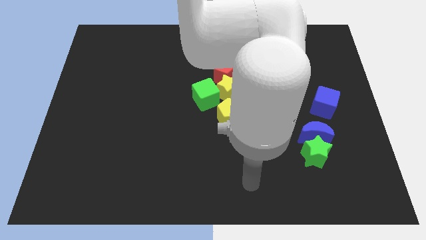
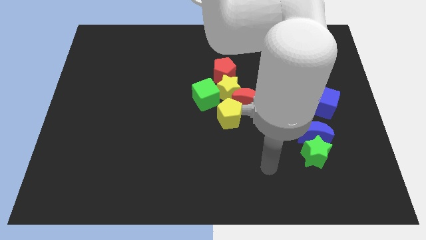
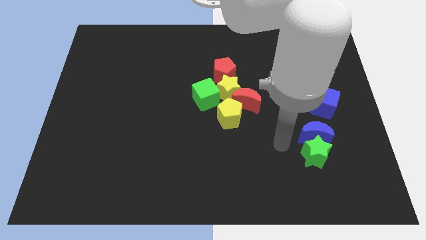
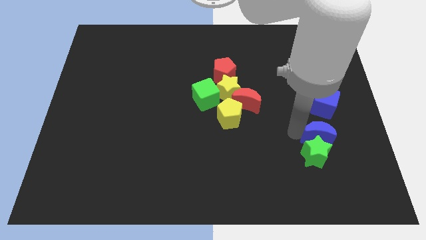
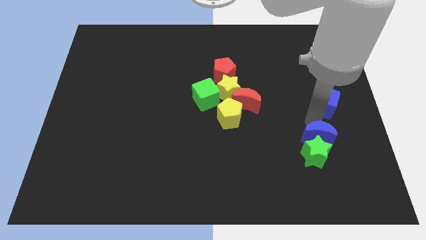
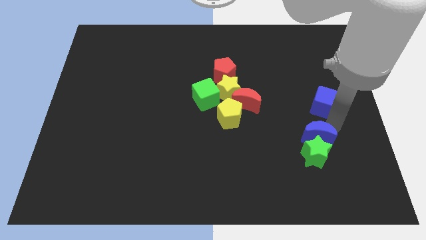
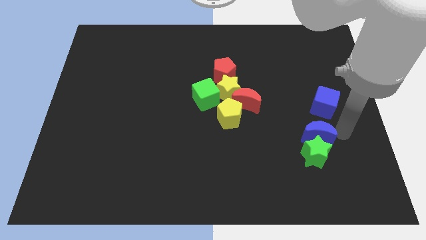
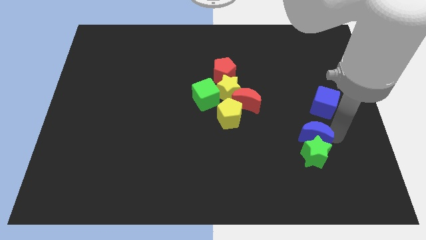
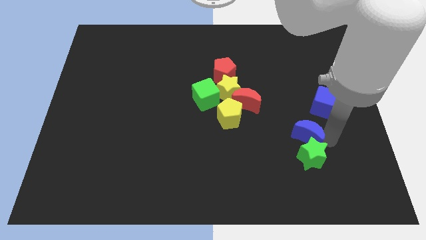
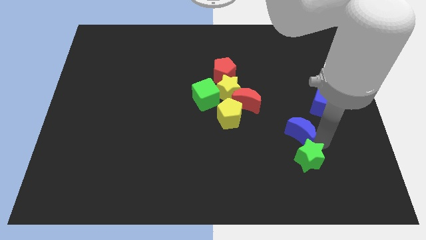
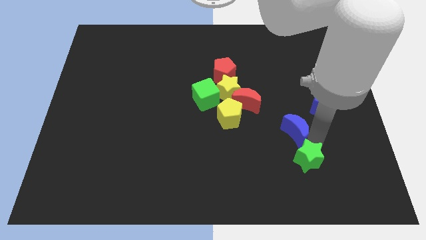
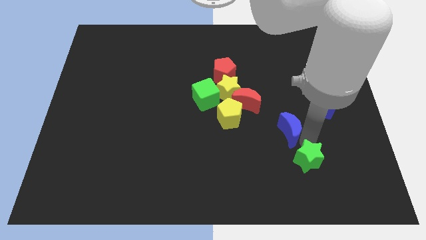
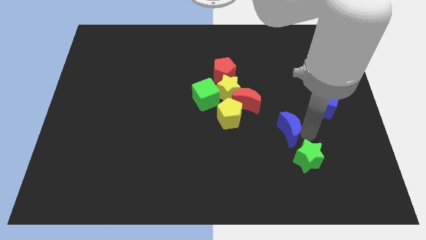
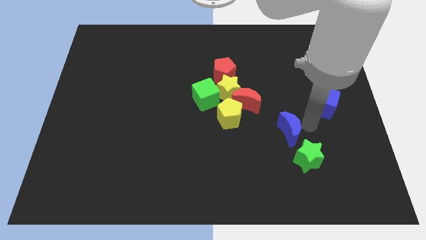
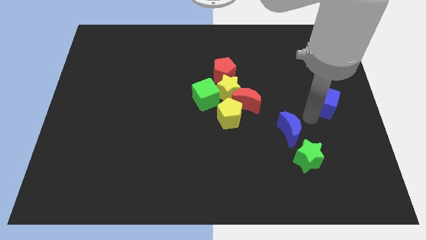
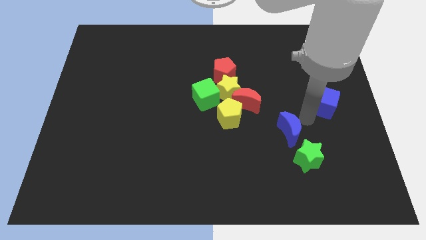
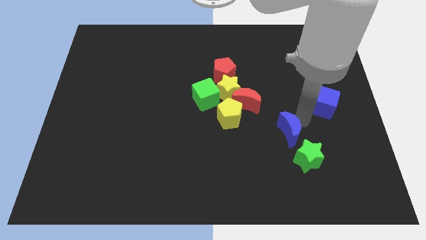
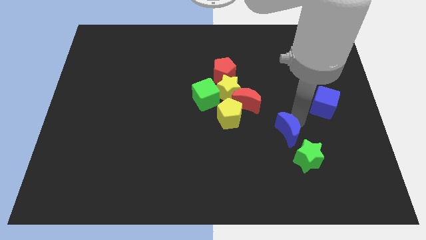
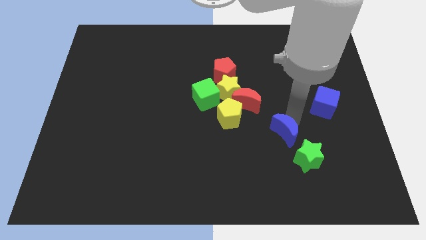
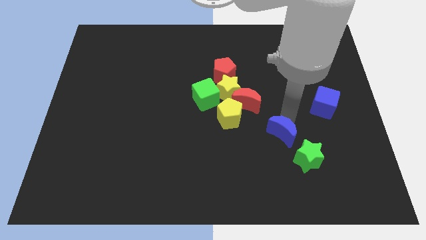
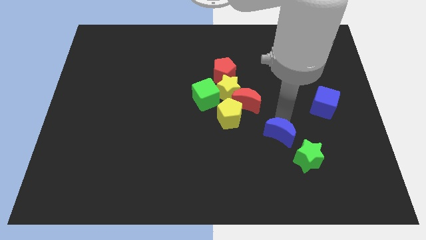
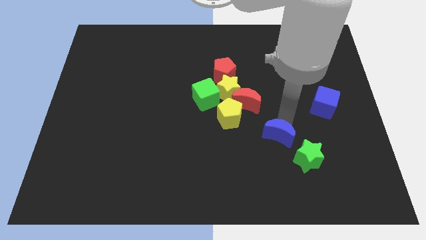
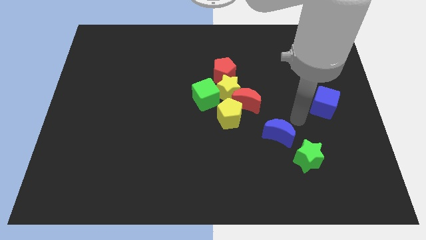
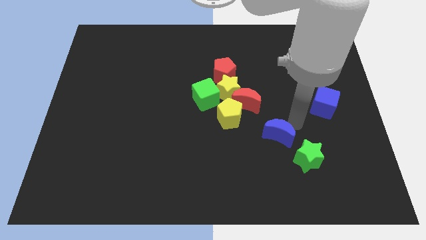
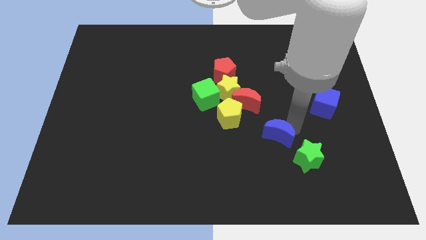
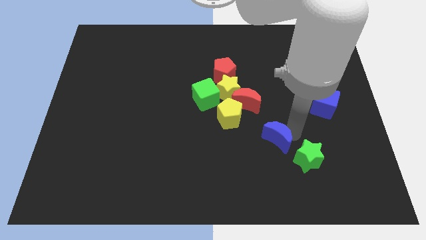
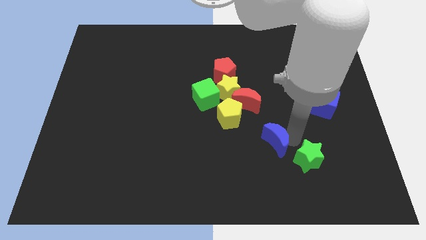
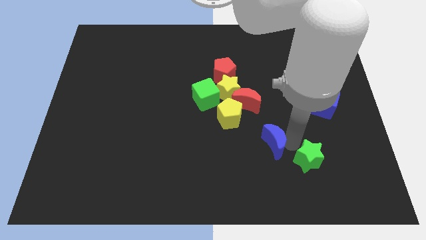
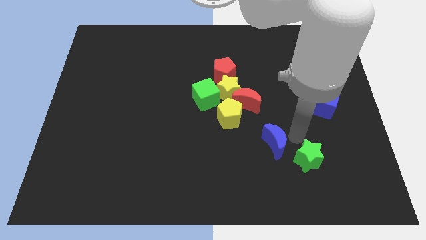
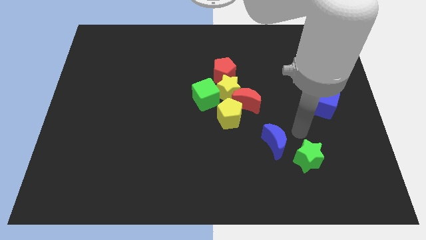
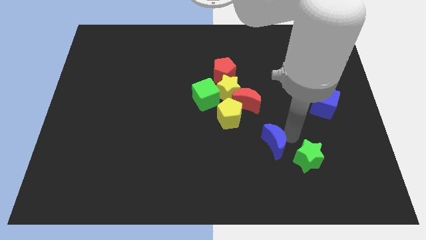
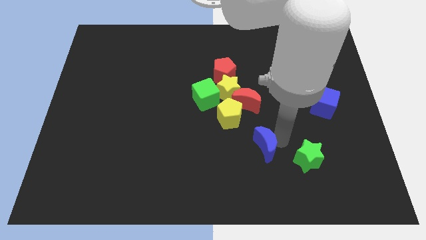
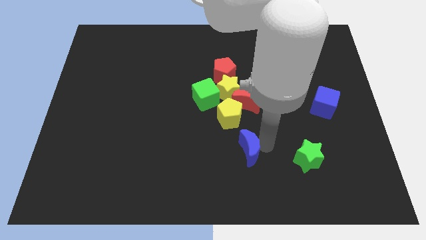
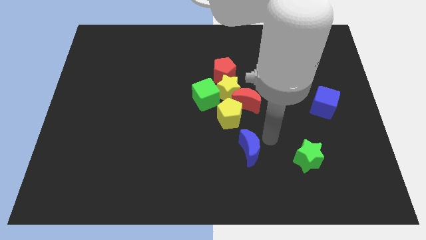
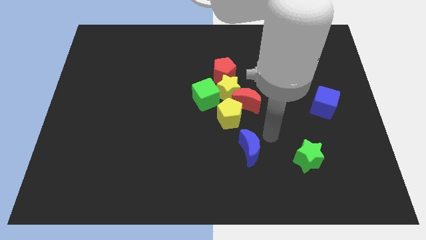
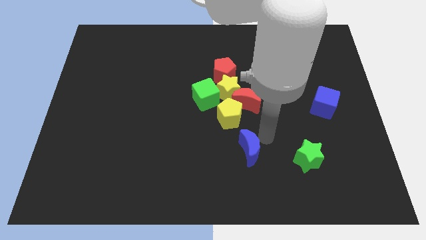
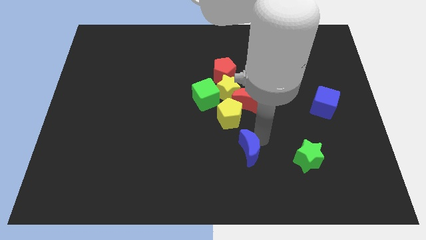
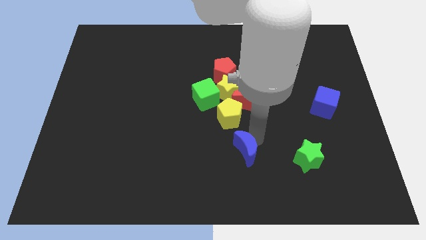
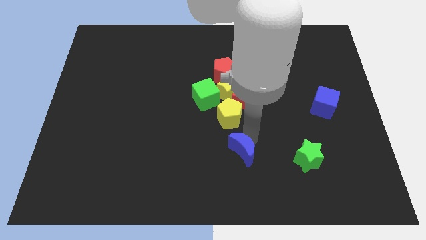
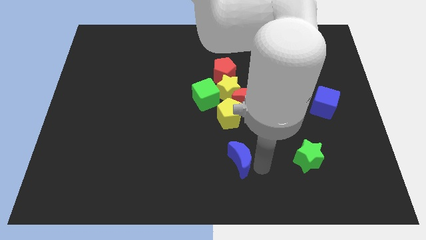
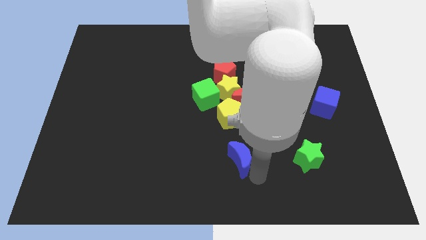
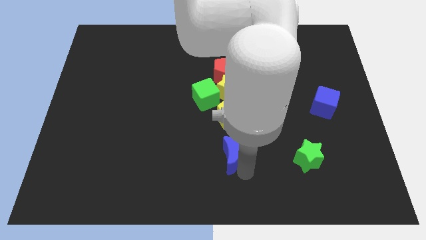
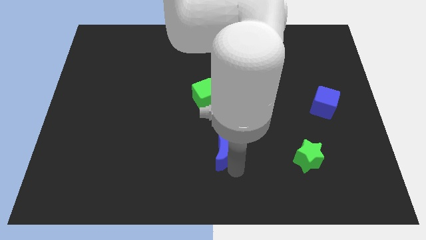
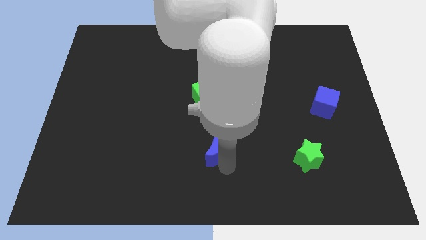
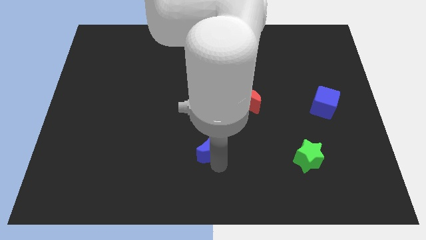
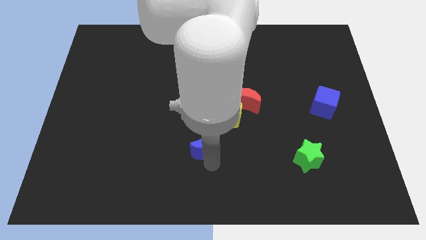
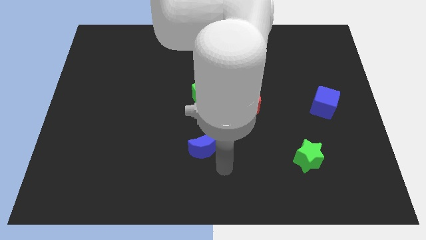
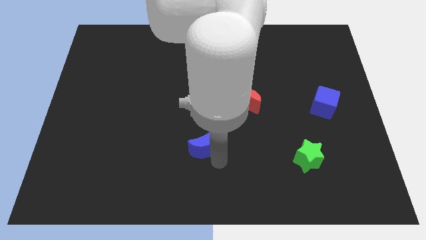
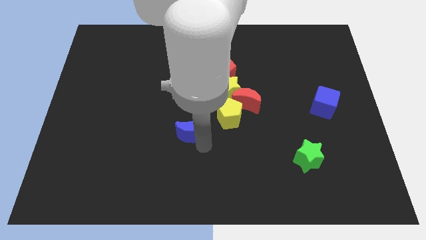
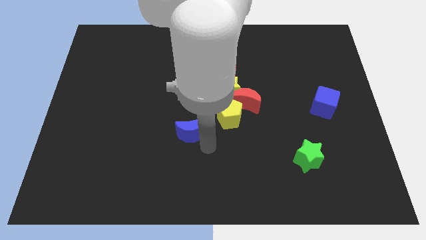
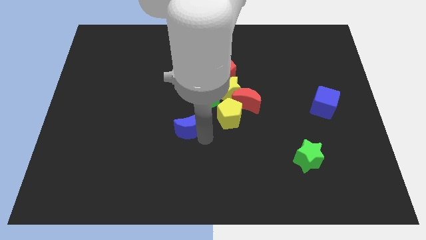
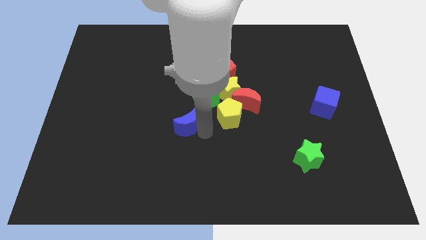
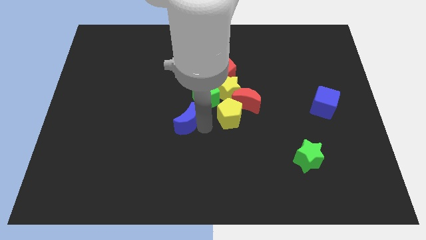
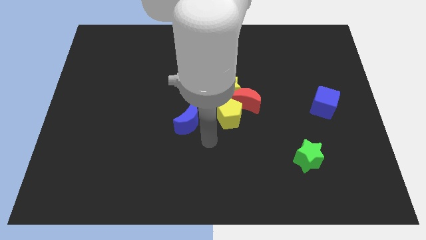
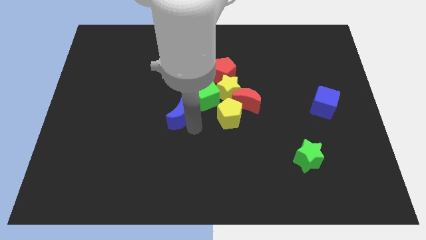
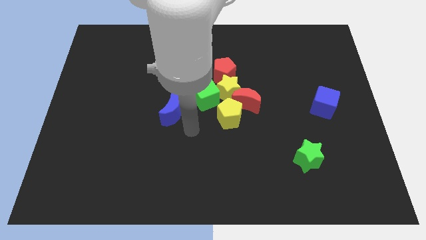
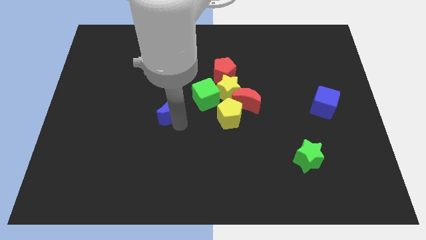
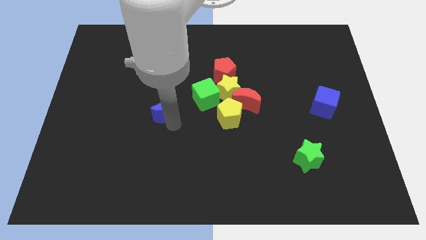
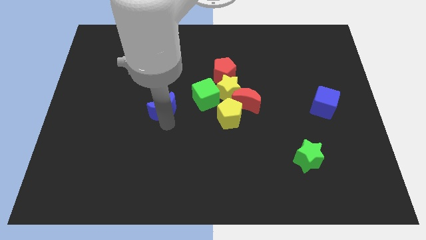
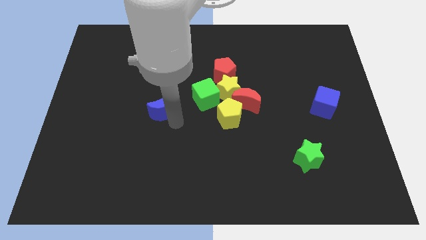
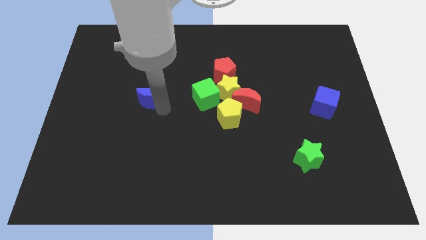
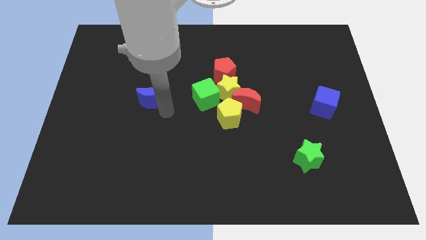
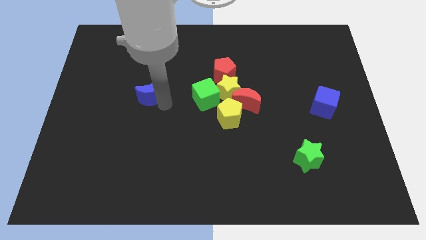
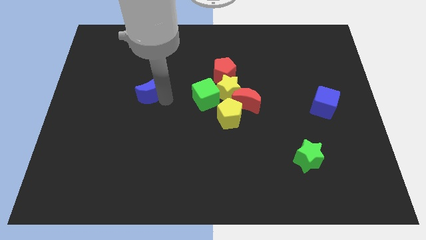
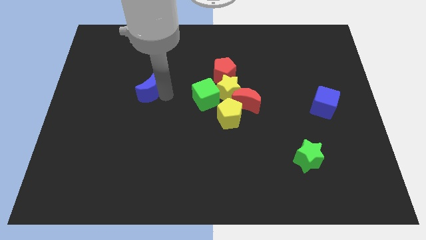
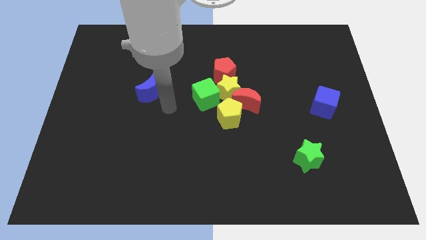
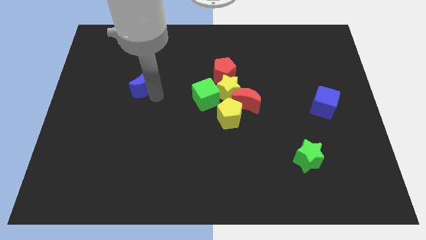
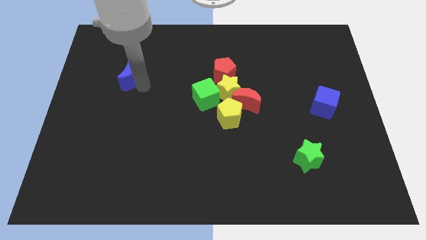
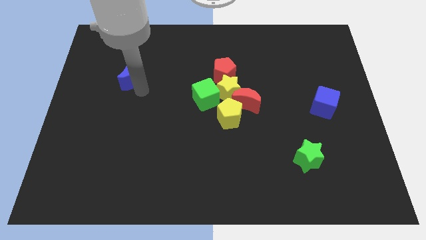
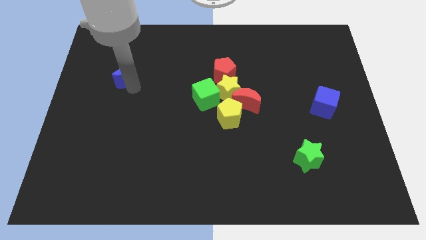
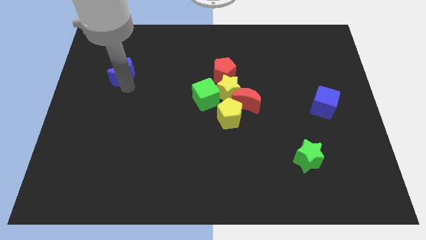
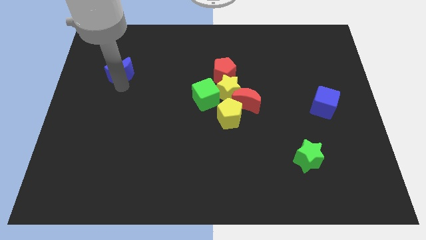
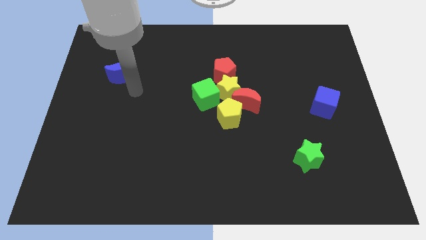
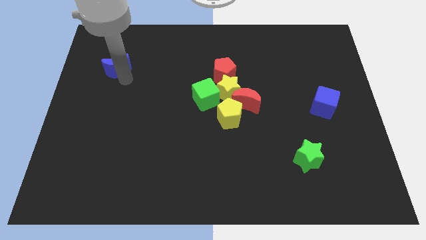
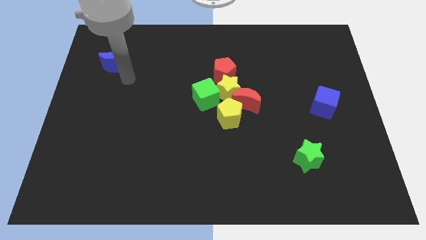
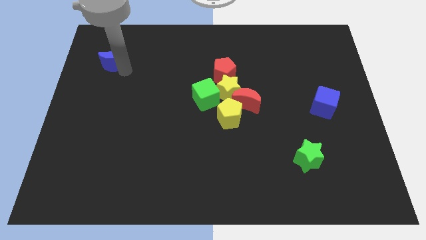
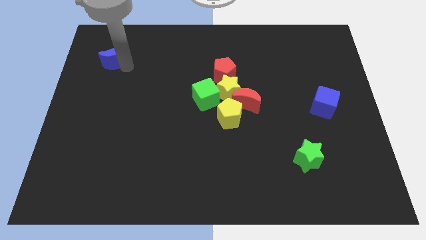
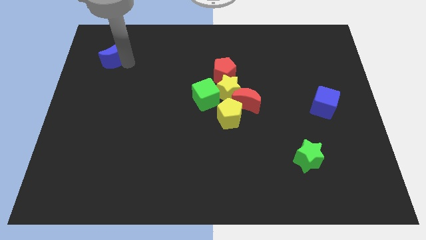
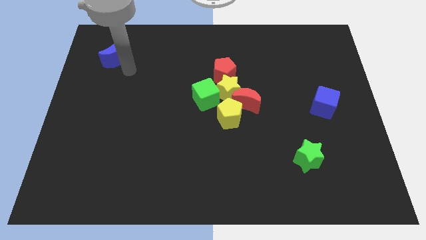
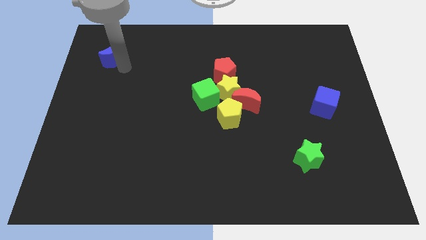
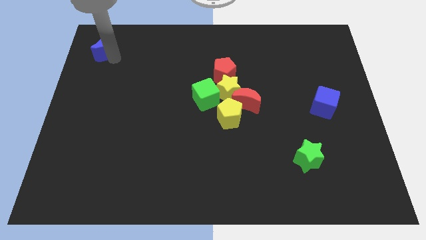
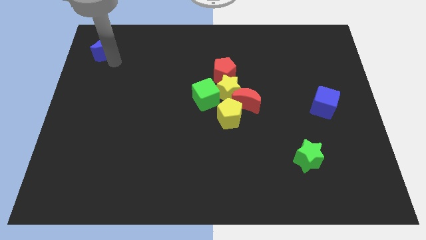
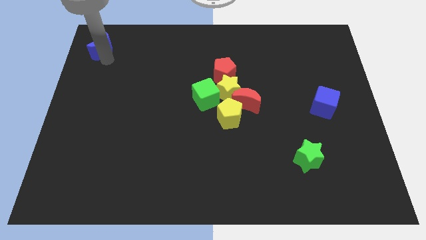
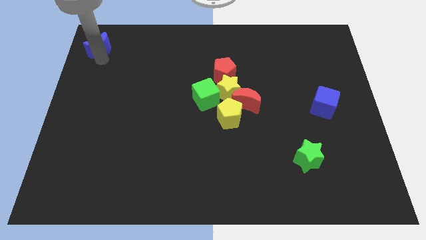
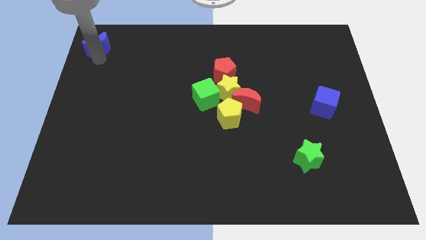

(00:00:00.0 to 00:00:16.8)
move the blue moon to the top left of the board
